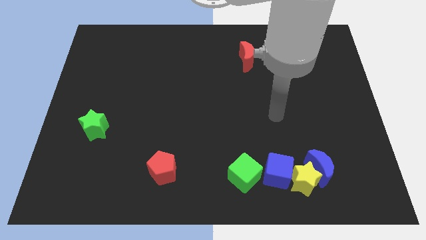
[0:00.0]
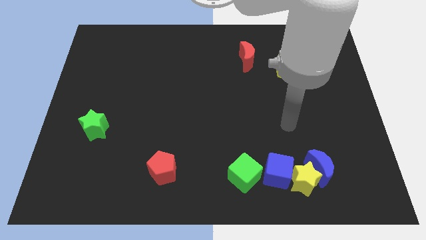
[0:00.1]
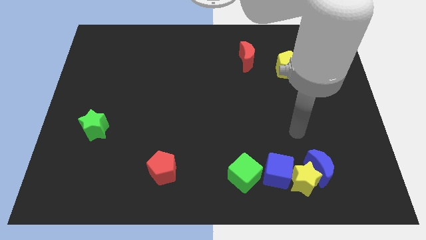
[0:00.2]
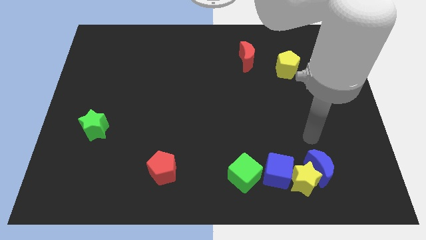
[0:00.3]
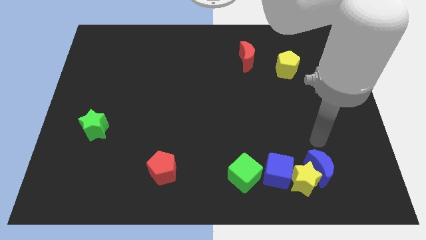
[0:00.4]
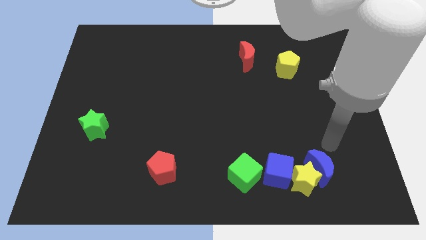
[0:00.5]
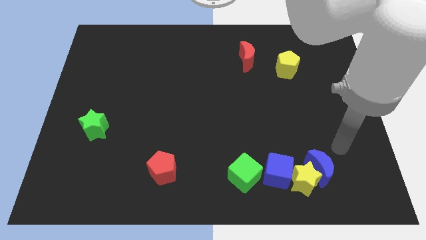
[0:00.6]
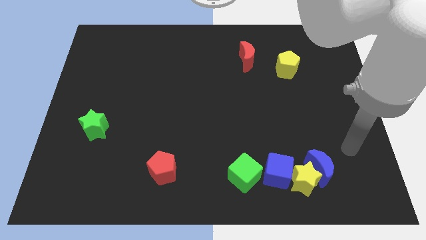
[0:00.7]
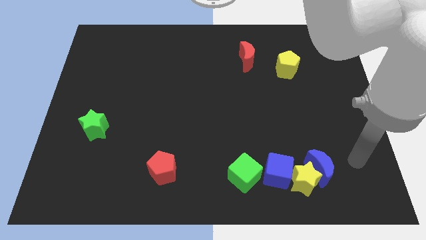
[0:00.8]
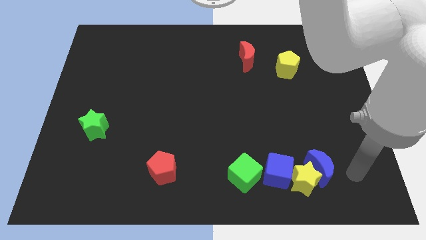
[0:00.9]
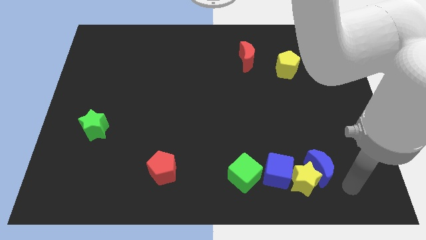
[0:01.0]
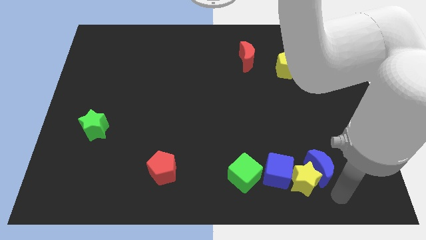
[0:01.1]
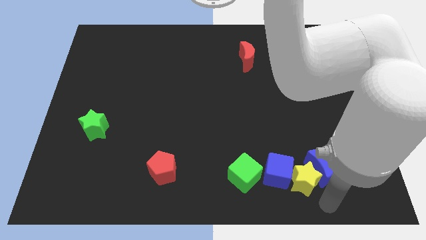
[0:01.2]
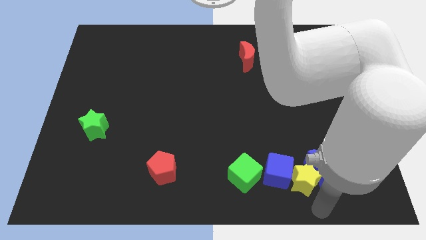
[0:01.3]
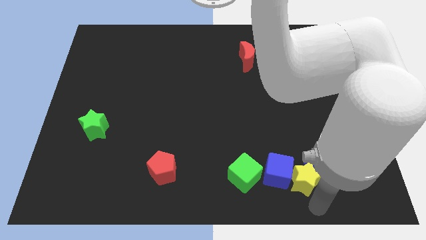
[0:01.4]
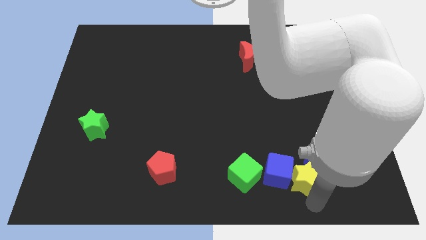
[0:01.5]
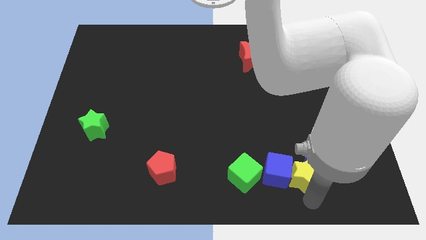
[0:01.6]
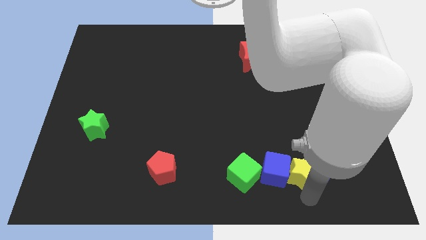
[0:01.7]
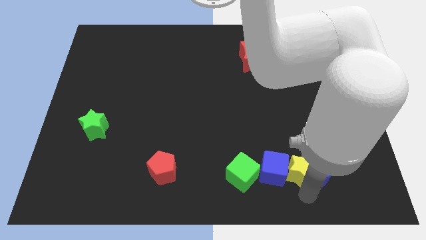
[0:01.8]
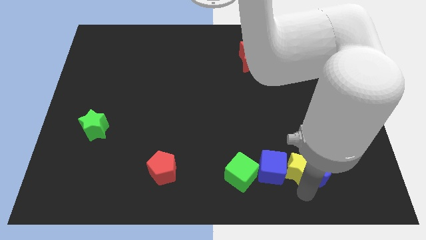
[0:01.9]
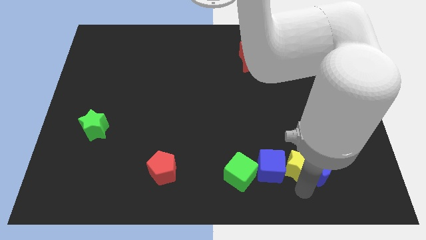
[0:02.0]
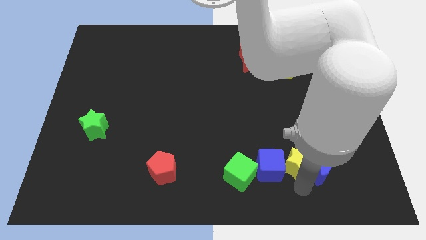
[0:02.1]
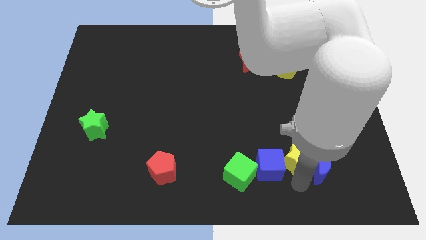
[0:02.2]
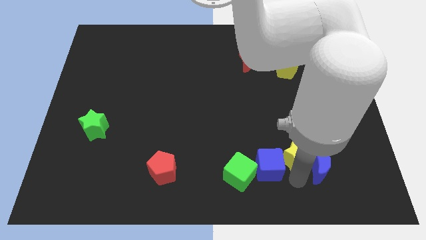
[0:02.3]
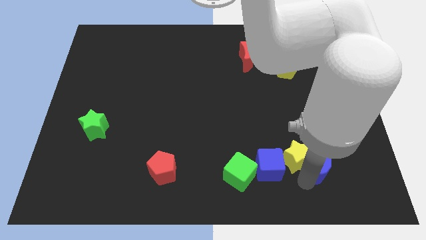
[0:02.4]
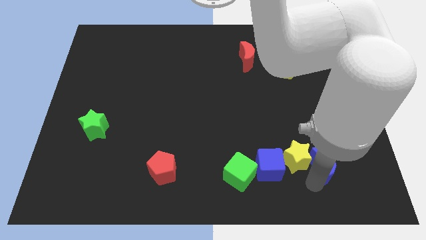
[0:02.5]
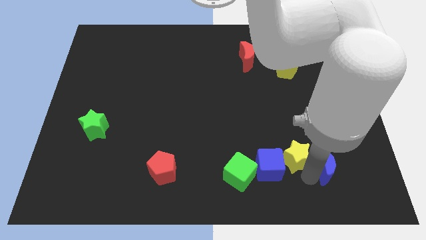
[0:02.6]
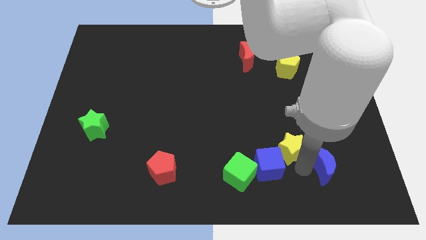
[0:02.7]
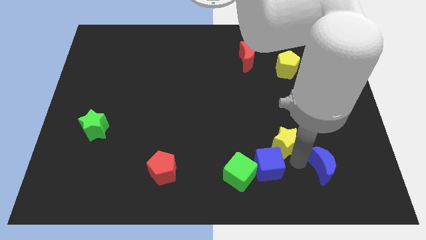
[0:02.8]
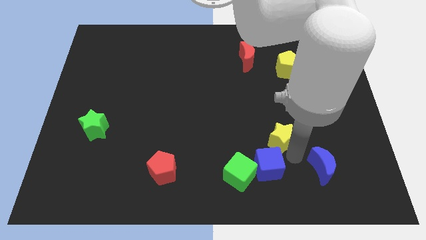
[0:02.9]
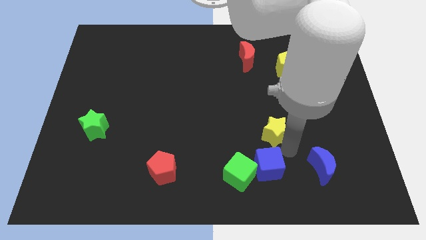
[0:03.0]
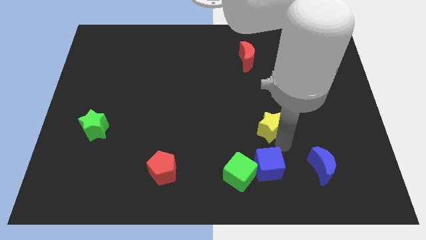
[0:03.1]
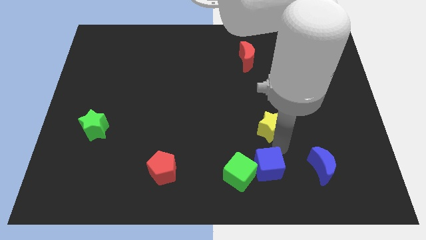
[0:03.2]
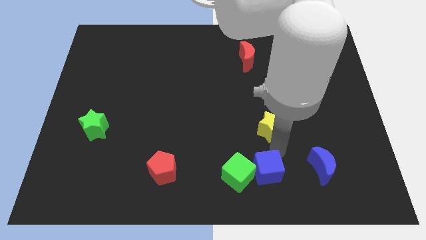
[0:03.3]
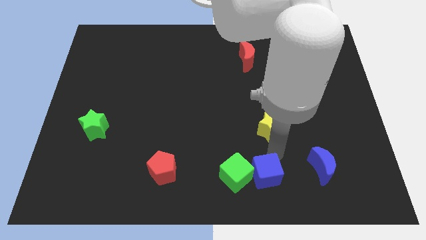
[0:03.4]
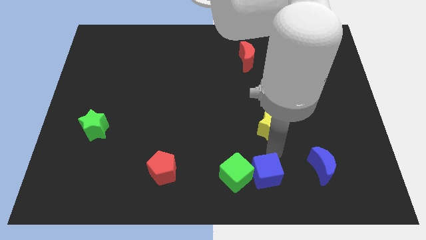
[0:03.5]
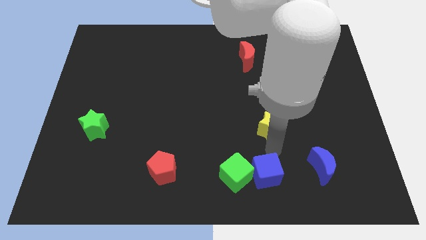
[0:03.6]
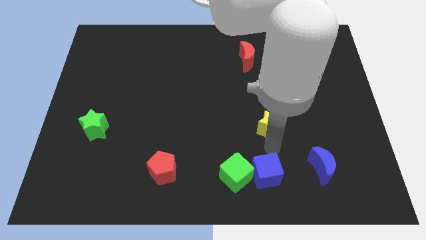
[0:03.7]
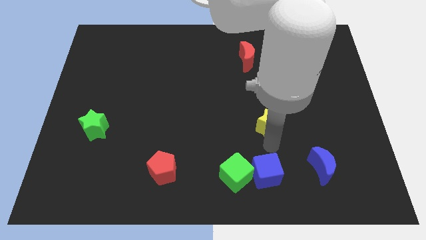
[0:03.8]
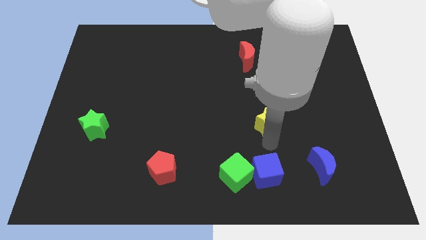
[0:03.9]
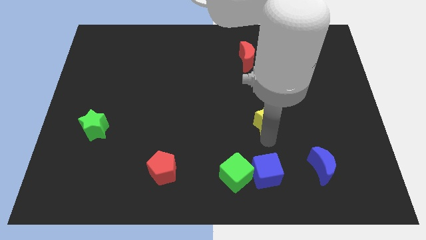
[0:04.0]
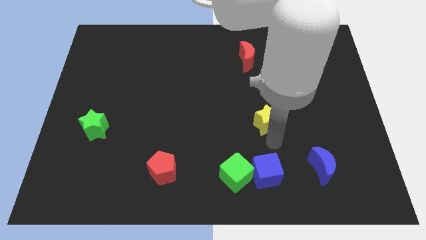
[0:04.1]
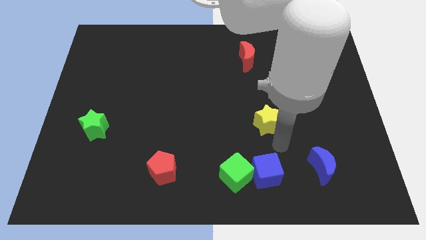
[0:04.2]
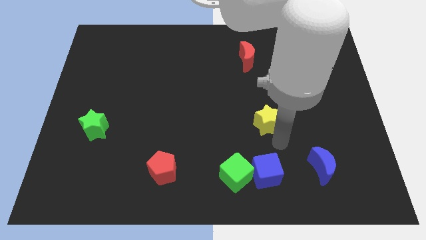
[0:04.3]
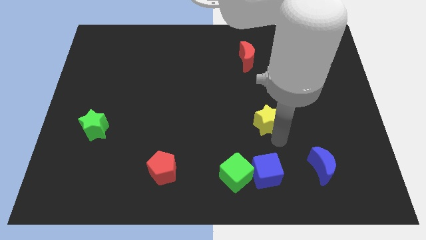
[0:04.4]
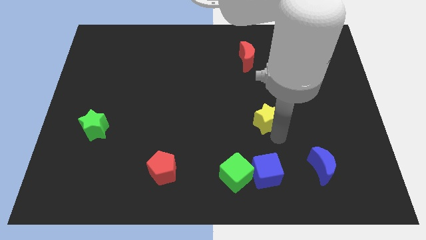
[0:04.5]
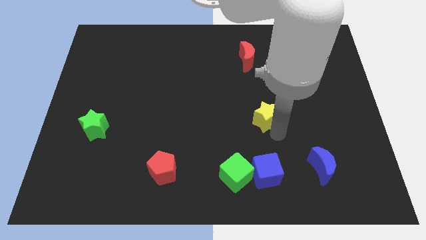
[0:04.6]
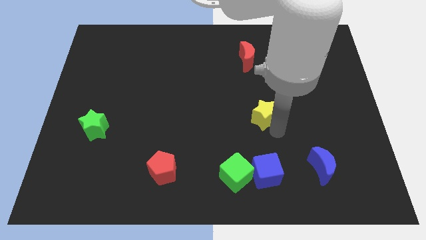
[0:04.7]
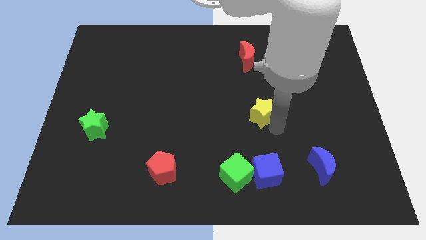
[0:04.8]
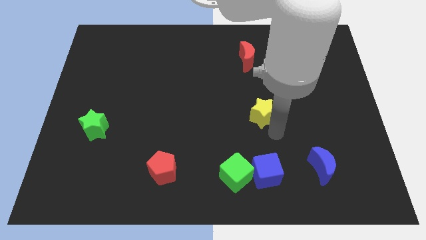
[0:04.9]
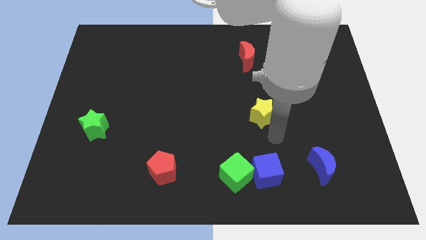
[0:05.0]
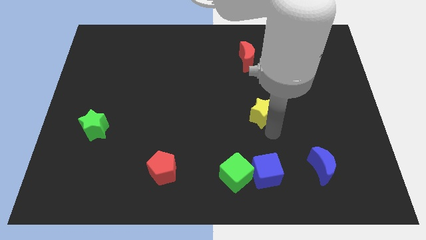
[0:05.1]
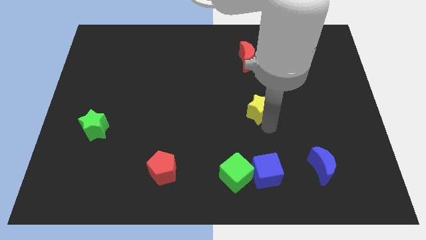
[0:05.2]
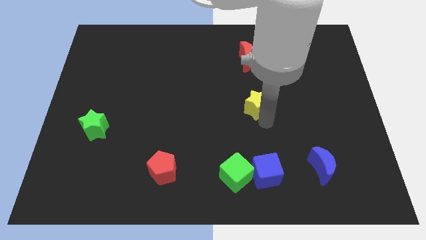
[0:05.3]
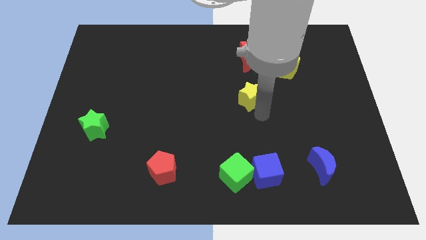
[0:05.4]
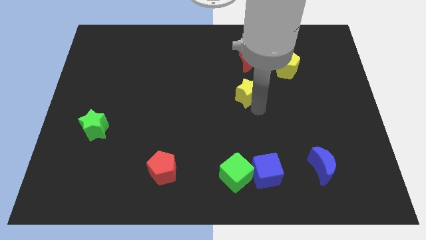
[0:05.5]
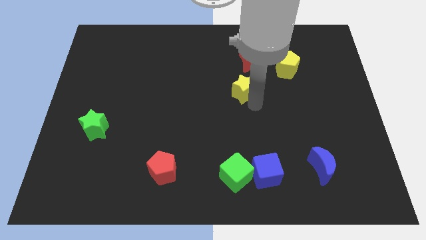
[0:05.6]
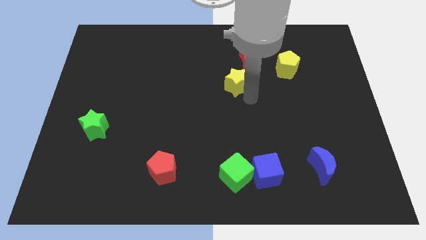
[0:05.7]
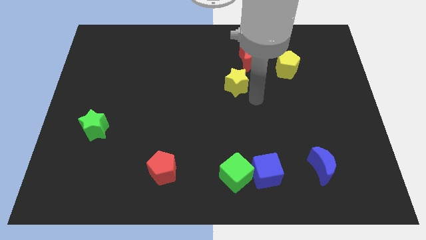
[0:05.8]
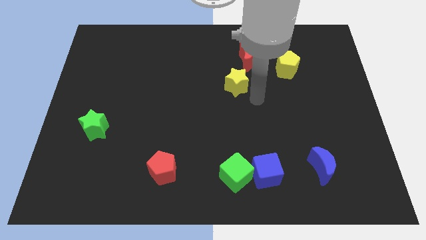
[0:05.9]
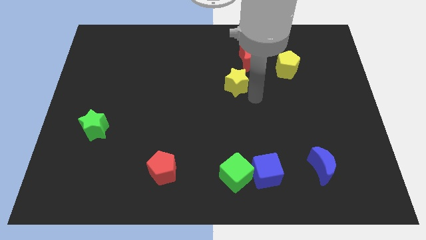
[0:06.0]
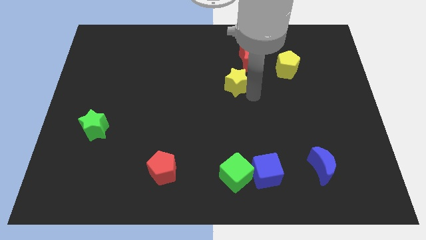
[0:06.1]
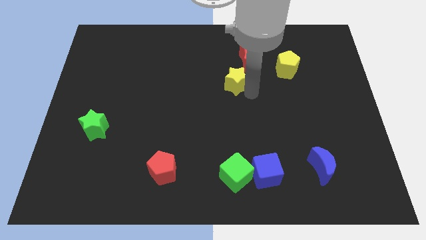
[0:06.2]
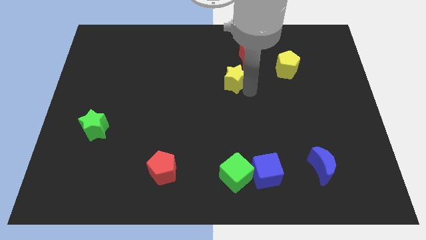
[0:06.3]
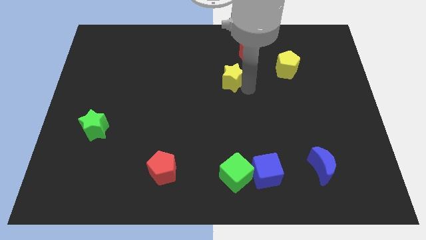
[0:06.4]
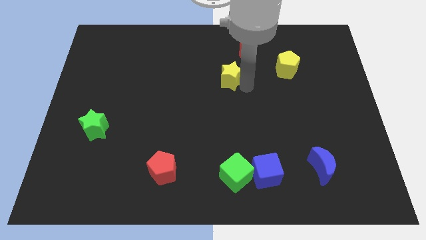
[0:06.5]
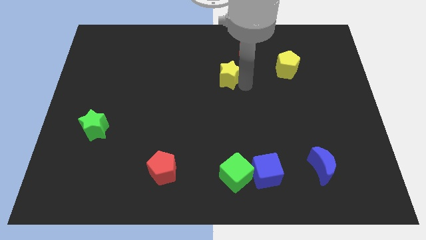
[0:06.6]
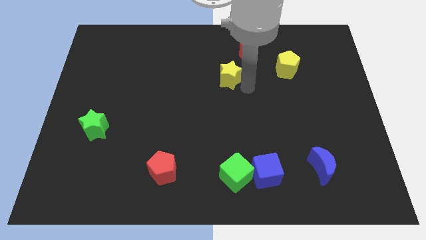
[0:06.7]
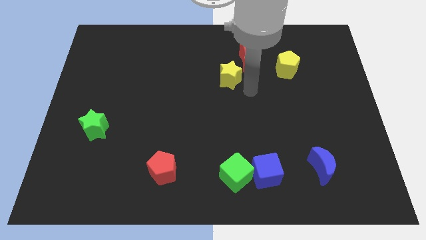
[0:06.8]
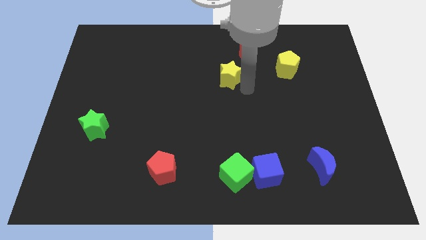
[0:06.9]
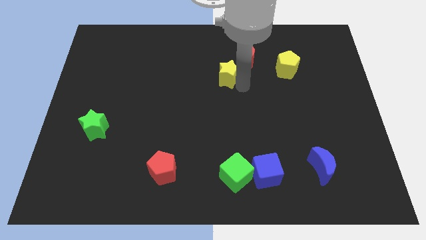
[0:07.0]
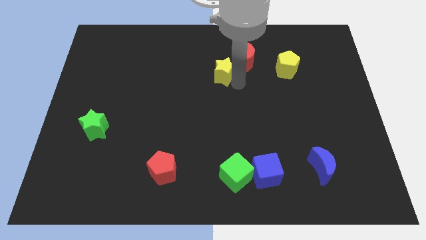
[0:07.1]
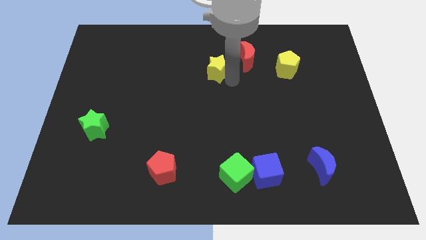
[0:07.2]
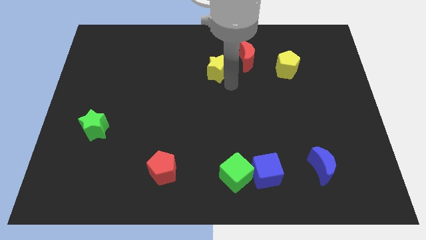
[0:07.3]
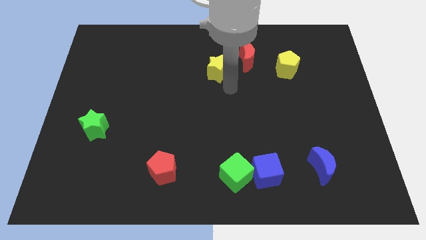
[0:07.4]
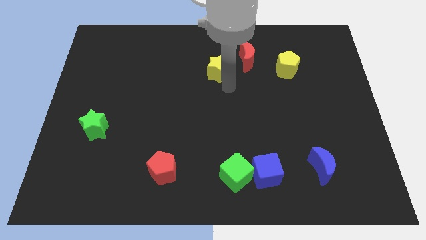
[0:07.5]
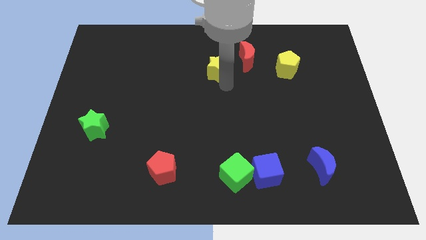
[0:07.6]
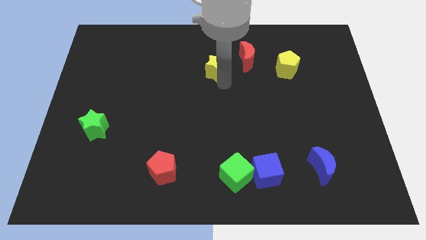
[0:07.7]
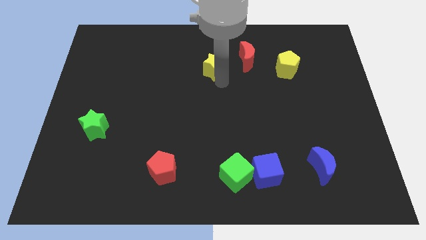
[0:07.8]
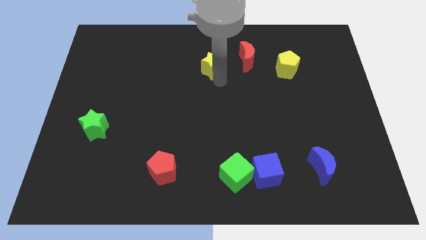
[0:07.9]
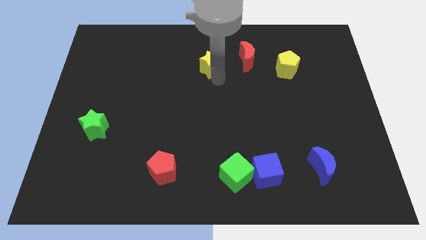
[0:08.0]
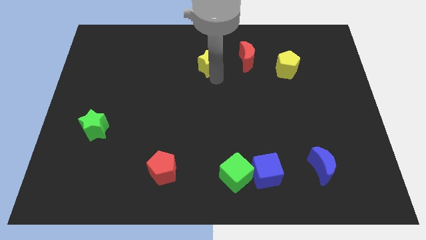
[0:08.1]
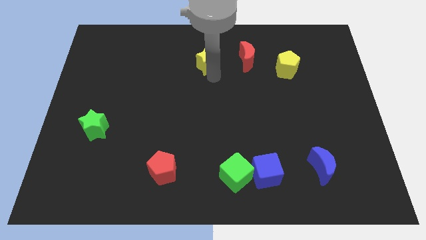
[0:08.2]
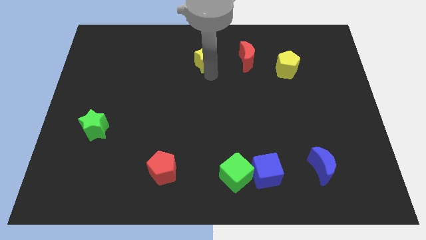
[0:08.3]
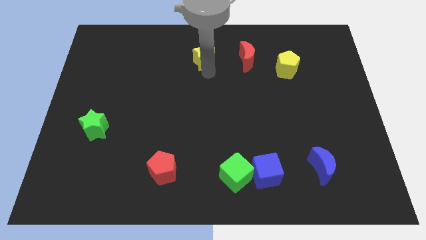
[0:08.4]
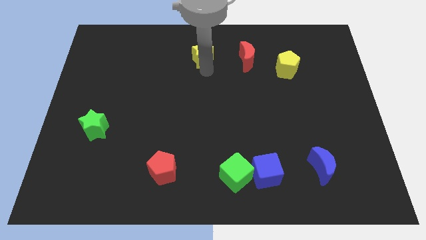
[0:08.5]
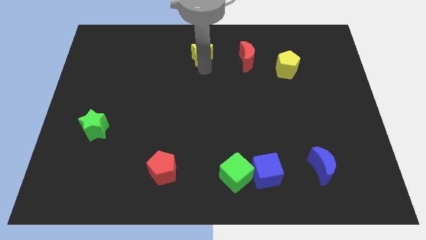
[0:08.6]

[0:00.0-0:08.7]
push the yellow star to the top side
